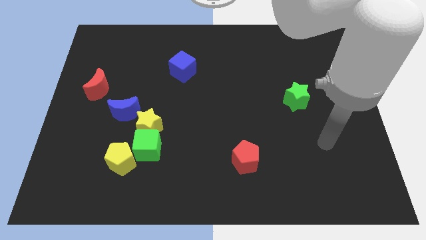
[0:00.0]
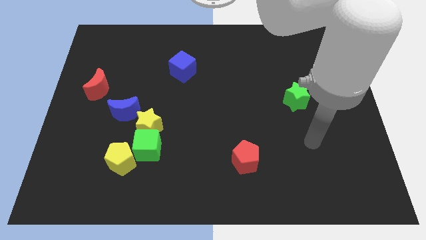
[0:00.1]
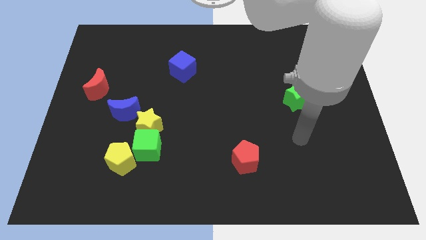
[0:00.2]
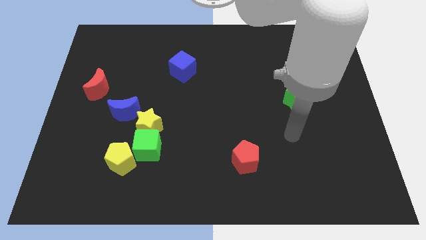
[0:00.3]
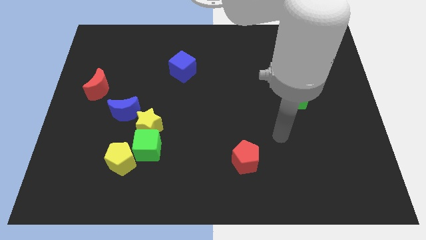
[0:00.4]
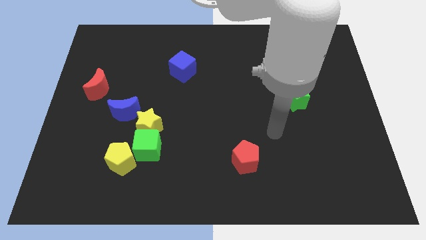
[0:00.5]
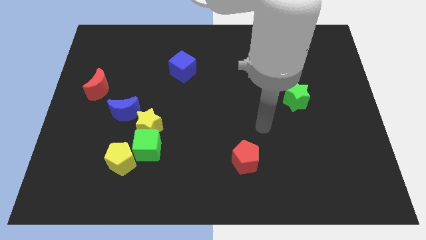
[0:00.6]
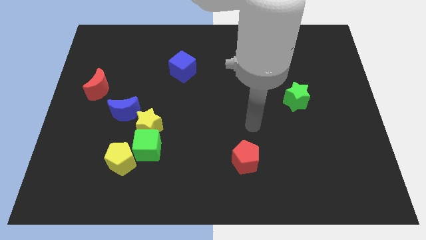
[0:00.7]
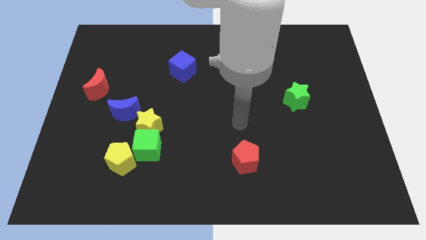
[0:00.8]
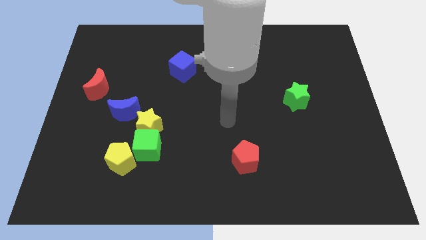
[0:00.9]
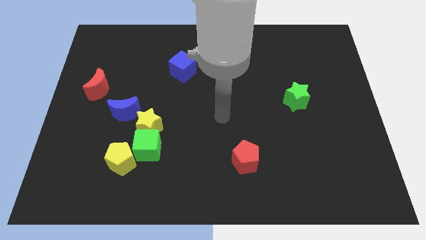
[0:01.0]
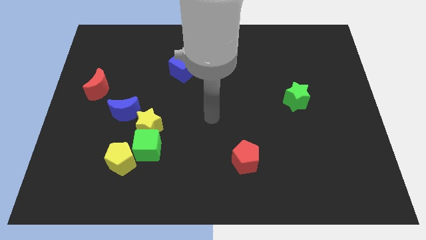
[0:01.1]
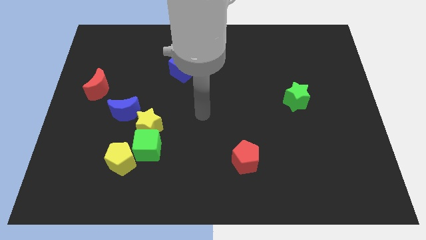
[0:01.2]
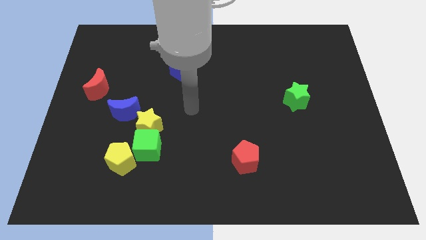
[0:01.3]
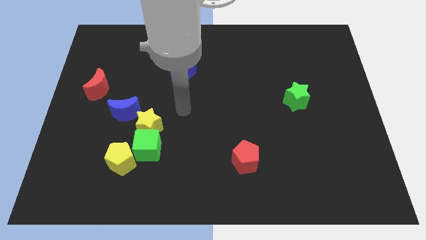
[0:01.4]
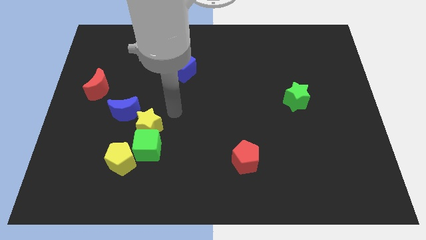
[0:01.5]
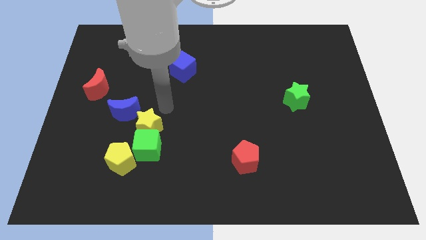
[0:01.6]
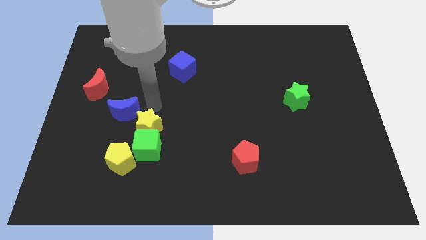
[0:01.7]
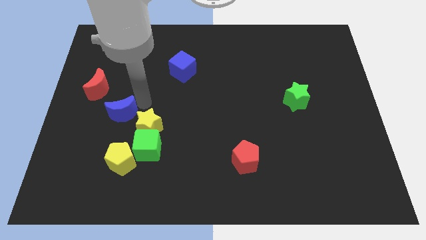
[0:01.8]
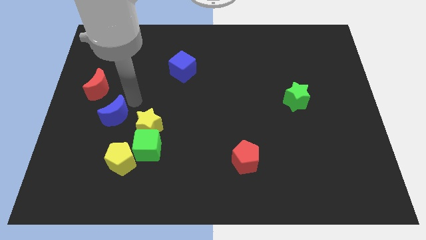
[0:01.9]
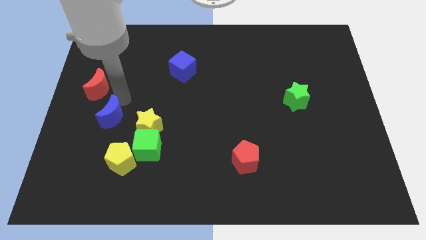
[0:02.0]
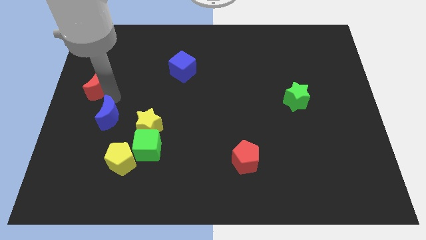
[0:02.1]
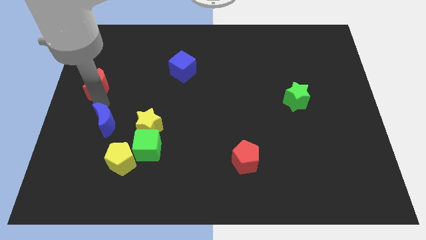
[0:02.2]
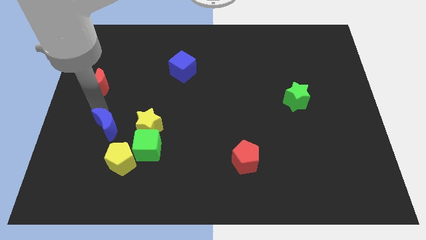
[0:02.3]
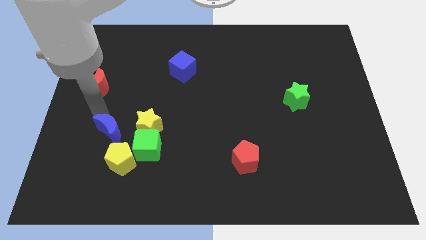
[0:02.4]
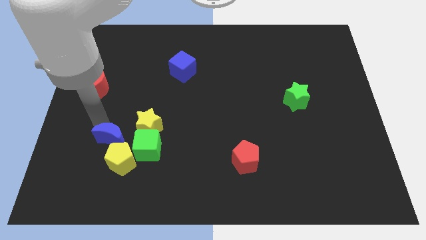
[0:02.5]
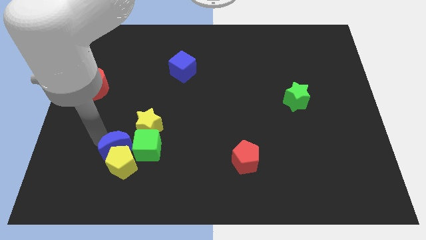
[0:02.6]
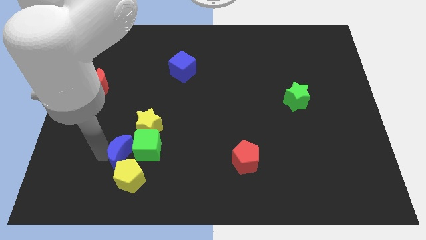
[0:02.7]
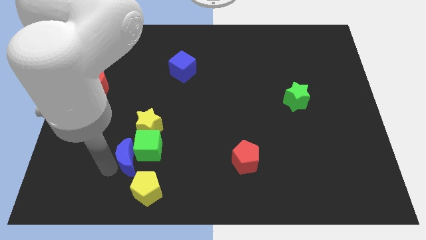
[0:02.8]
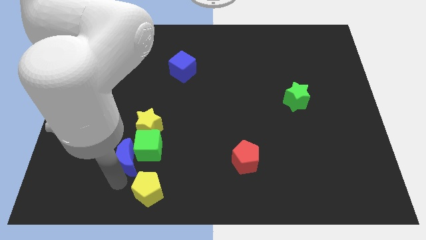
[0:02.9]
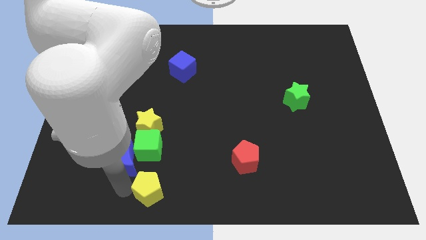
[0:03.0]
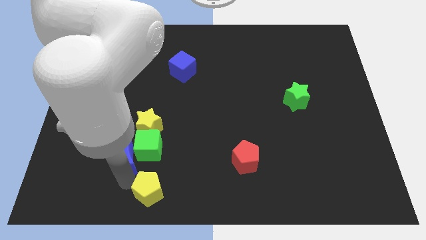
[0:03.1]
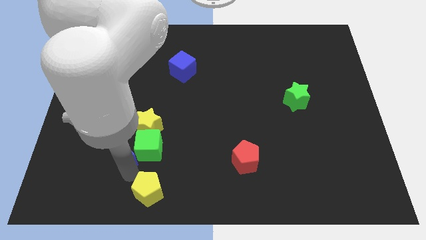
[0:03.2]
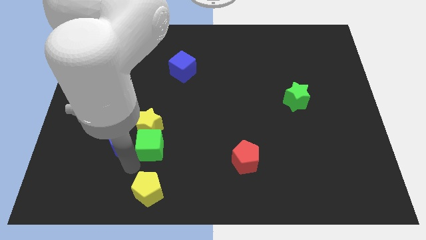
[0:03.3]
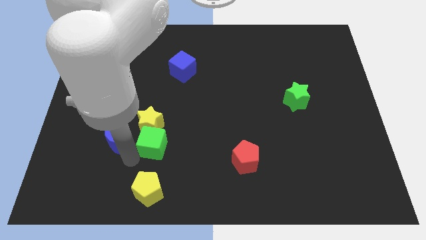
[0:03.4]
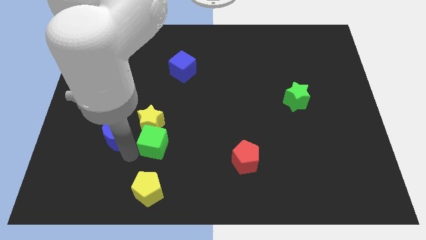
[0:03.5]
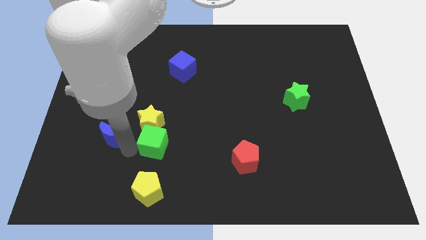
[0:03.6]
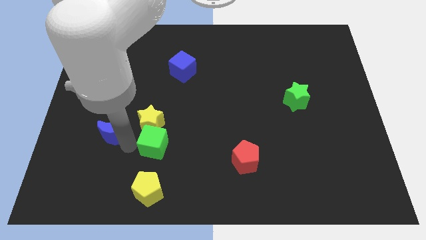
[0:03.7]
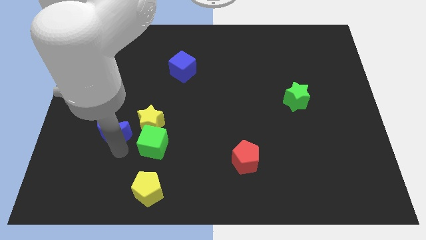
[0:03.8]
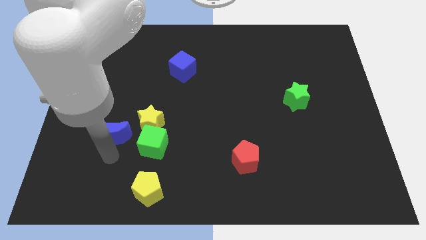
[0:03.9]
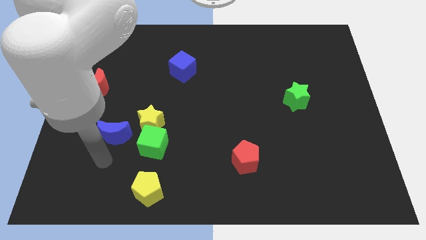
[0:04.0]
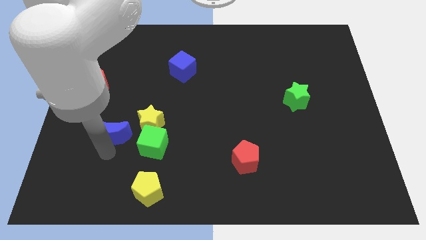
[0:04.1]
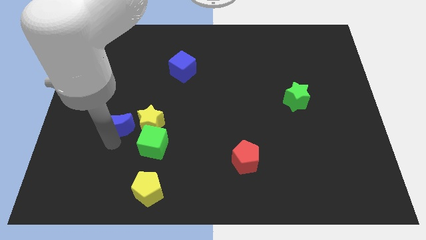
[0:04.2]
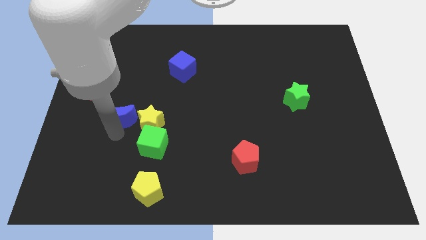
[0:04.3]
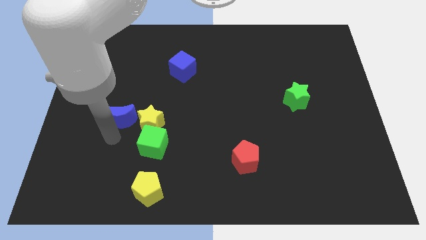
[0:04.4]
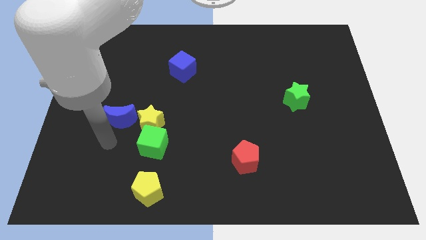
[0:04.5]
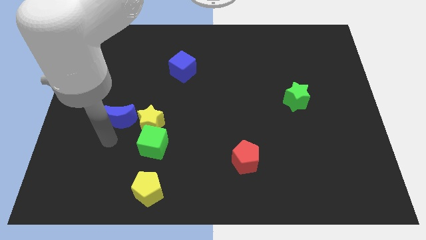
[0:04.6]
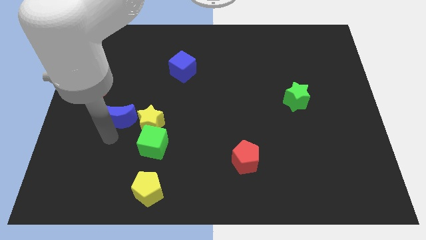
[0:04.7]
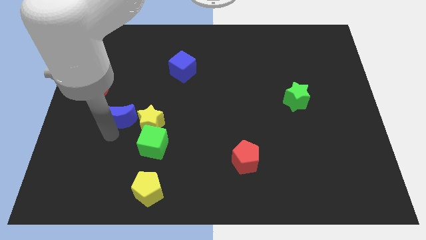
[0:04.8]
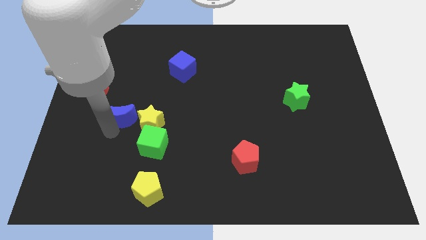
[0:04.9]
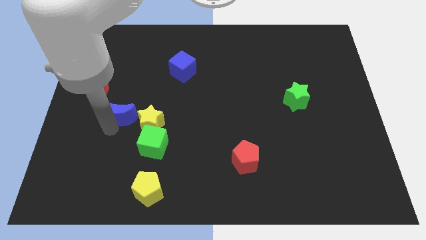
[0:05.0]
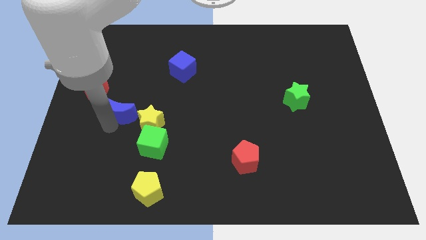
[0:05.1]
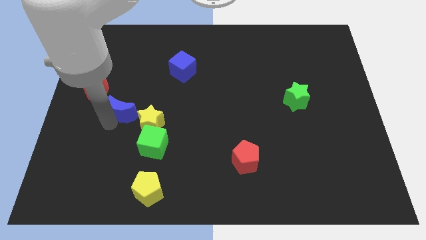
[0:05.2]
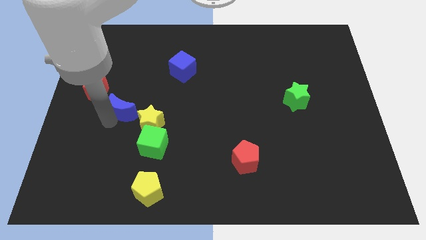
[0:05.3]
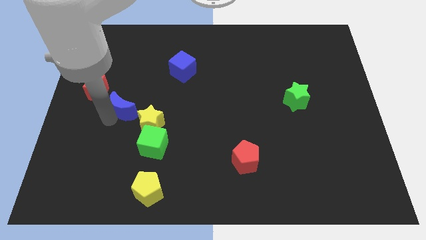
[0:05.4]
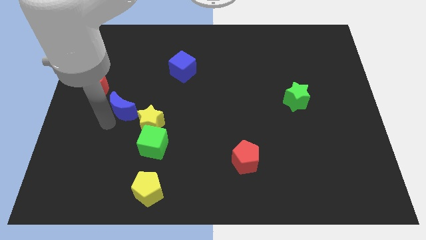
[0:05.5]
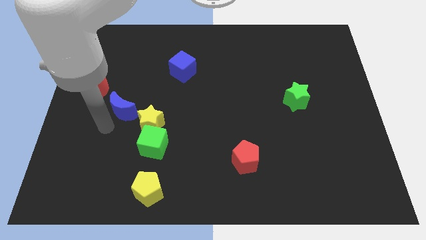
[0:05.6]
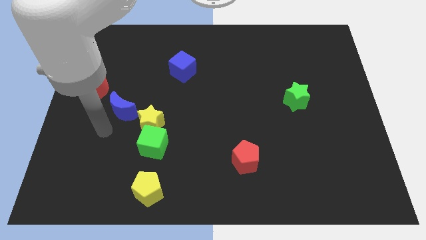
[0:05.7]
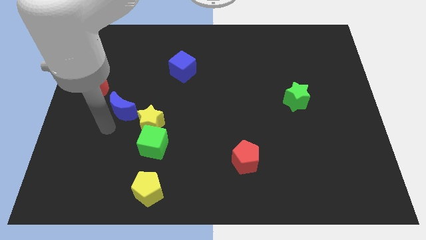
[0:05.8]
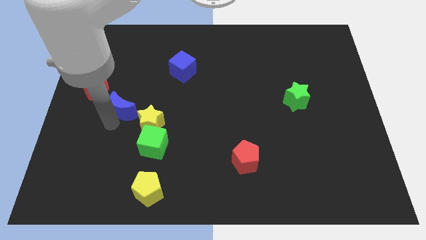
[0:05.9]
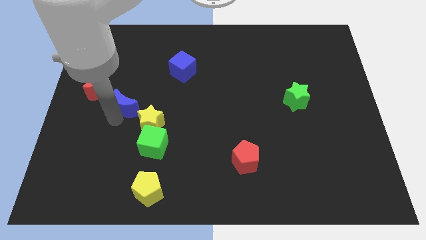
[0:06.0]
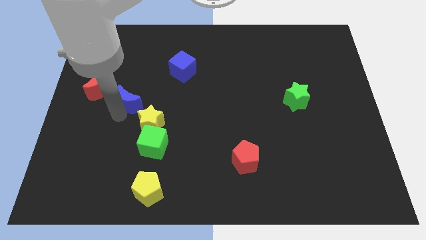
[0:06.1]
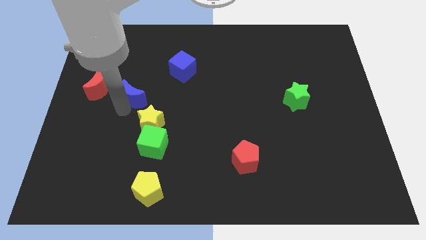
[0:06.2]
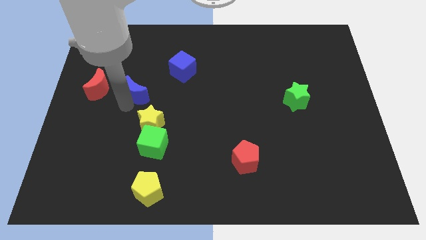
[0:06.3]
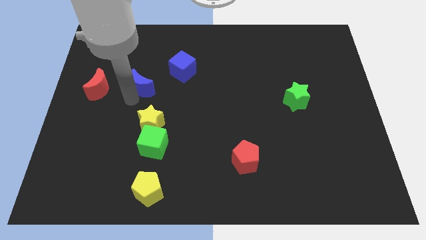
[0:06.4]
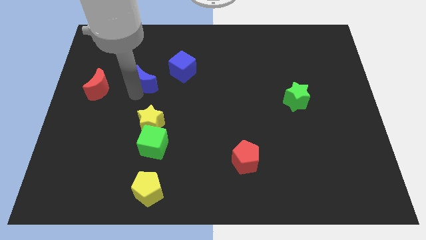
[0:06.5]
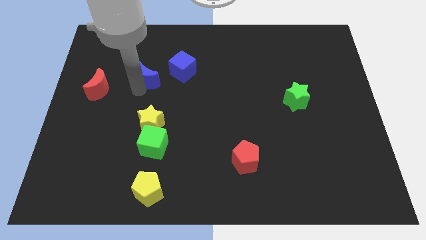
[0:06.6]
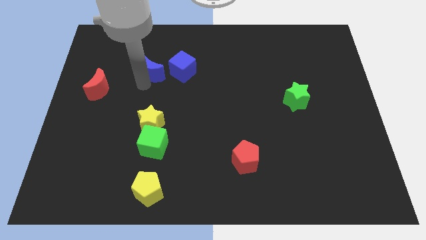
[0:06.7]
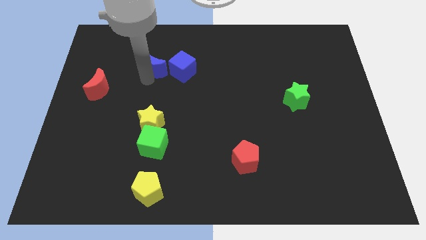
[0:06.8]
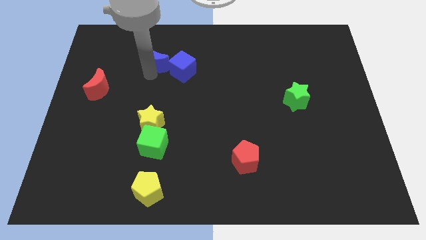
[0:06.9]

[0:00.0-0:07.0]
move the blue moon diagonally up and to the left of the blue cube
